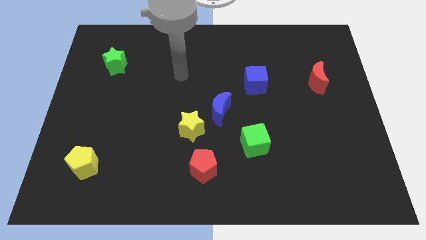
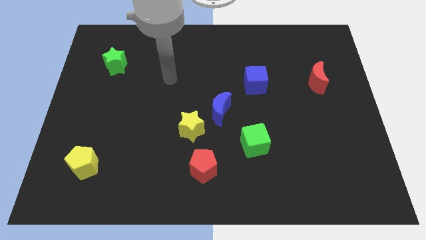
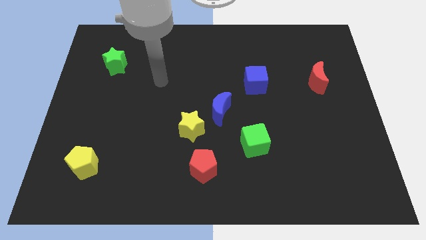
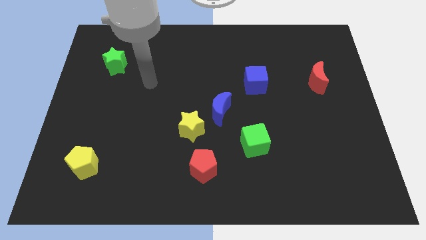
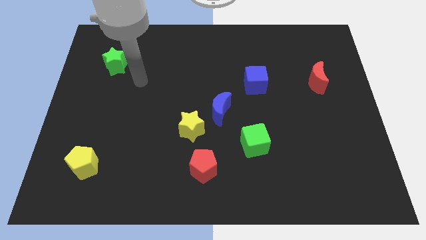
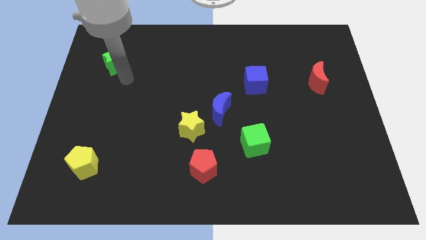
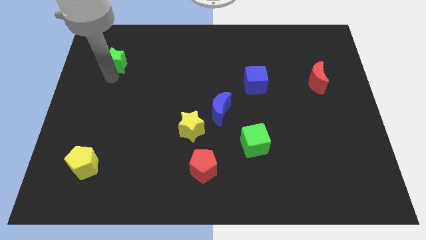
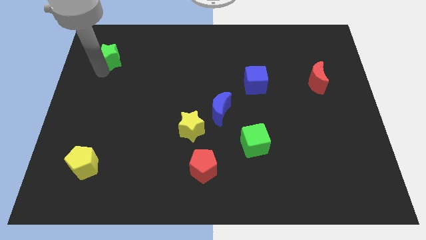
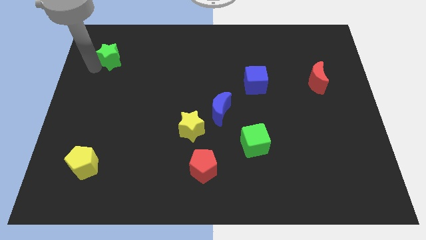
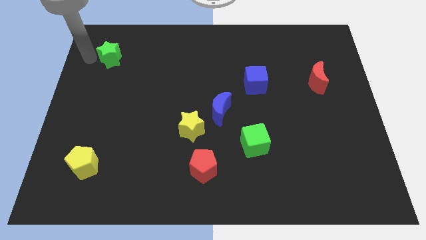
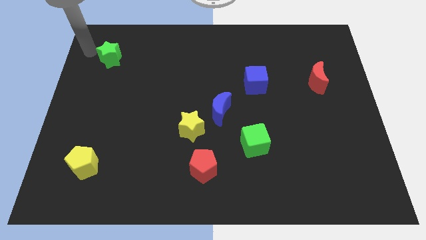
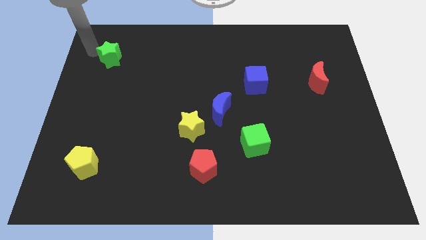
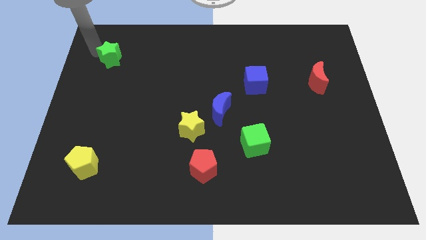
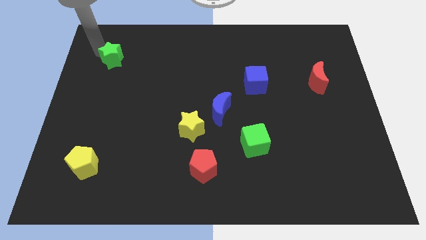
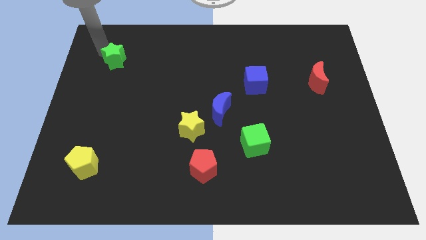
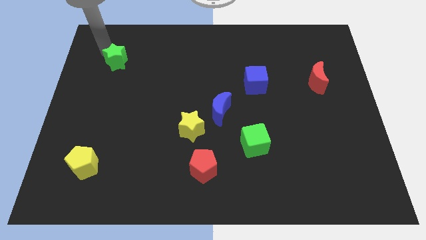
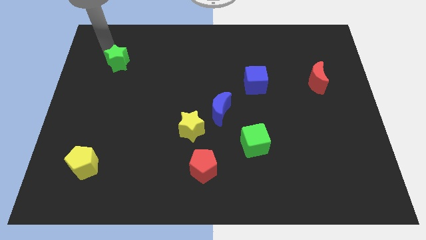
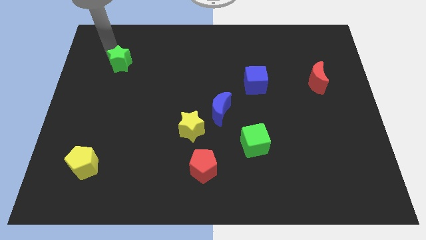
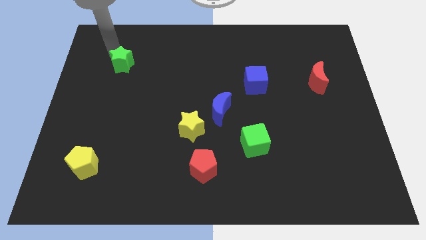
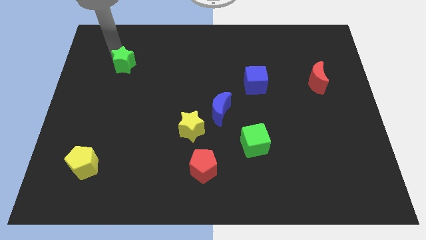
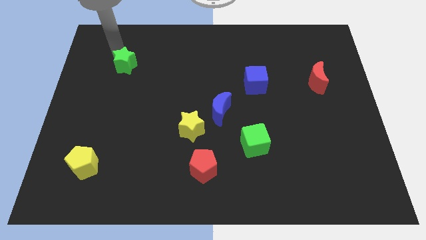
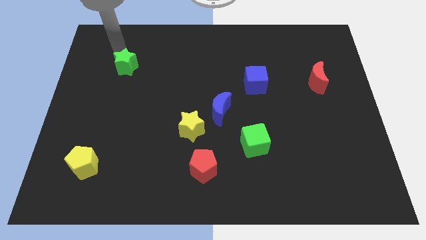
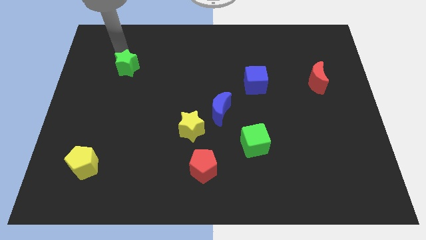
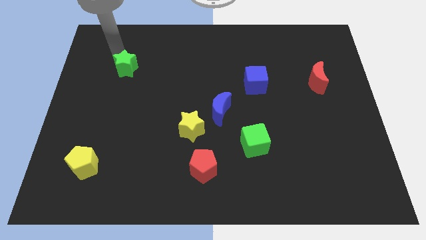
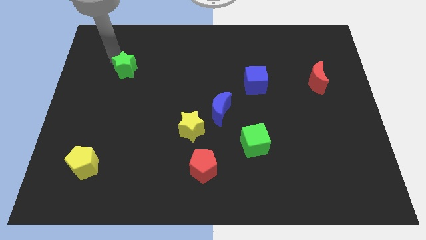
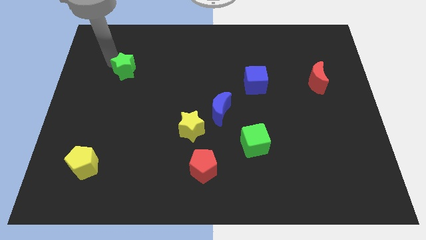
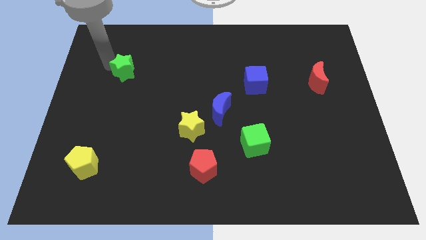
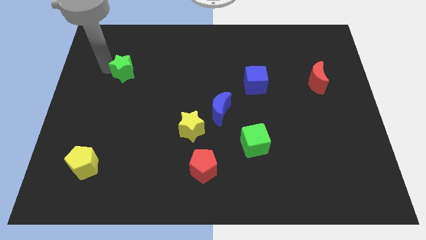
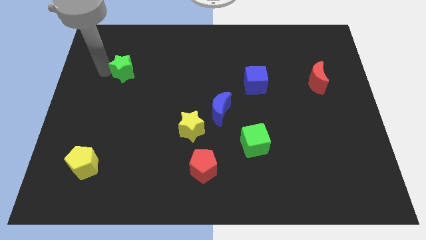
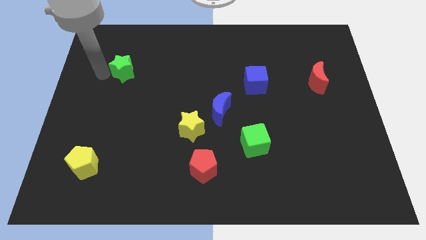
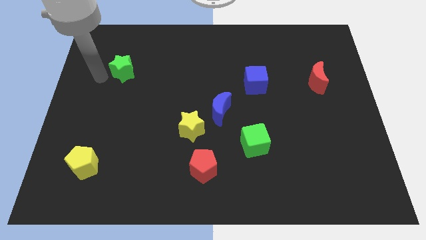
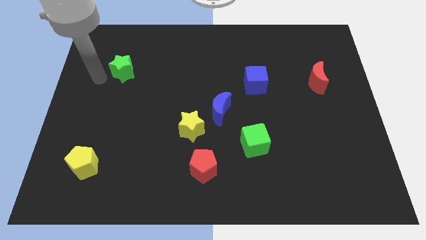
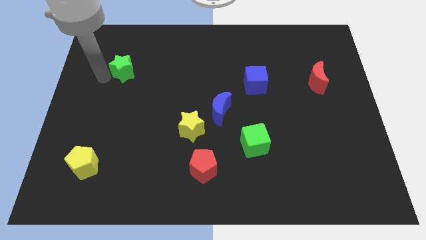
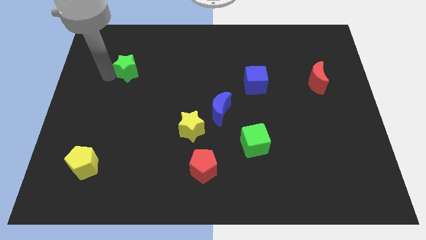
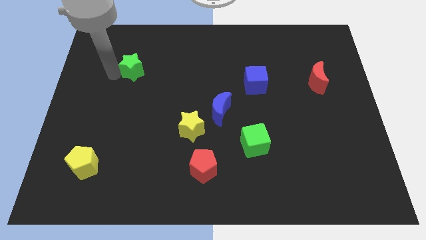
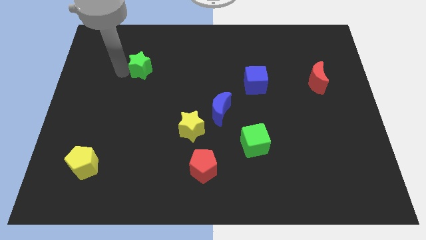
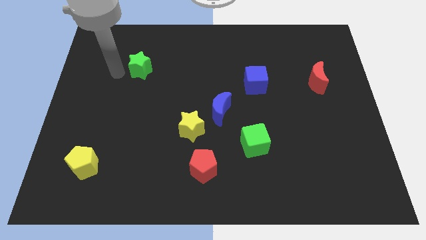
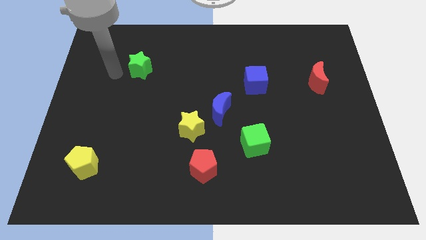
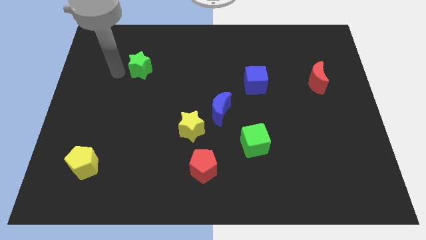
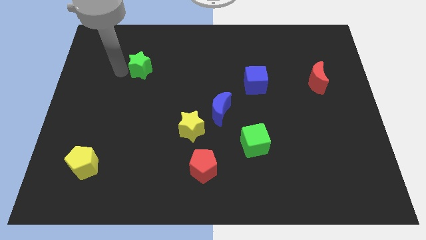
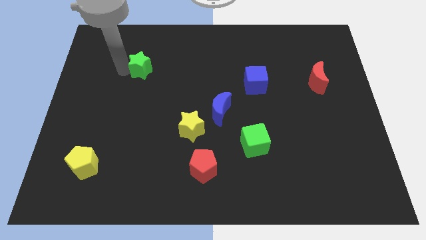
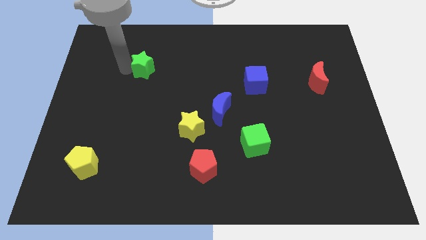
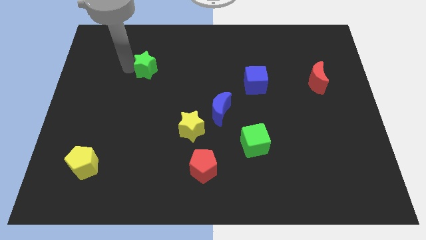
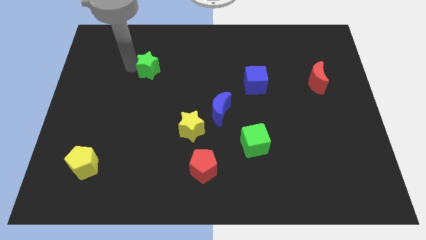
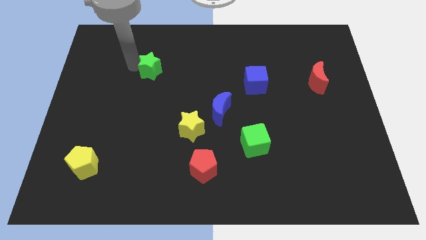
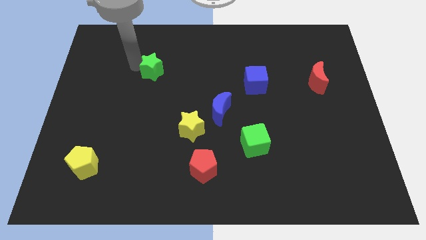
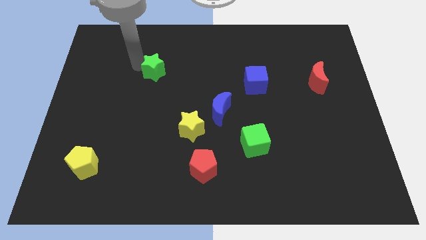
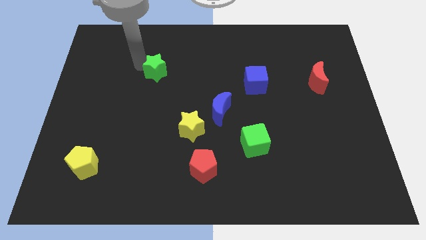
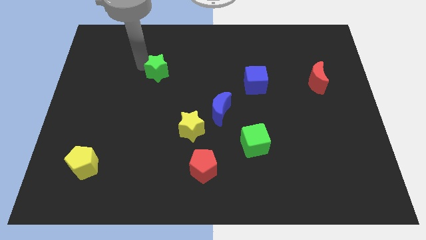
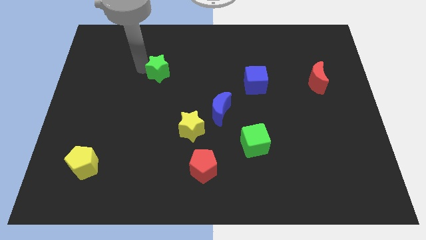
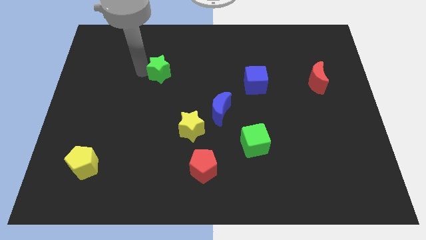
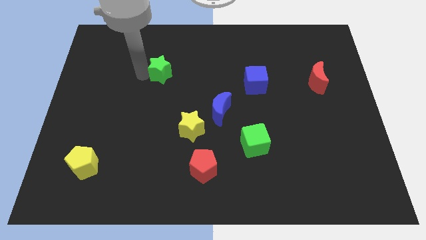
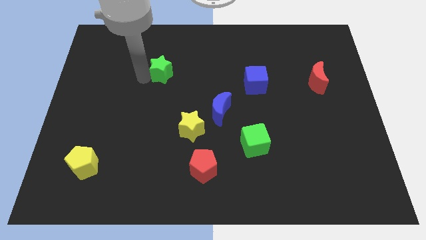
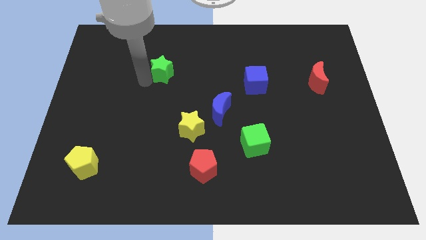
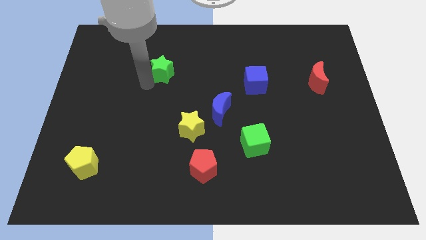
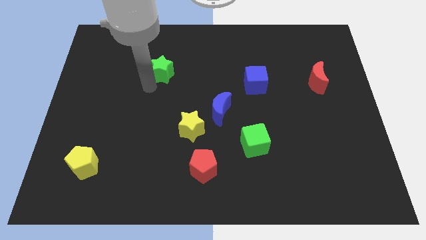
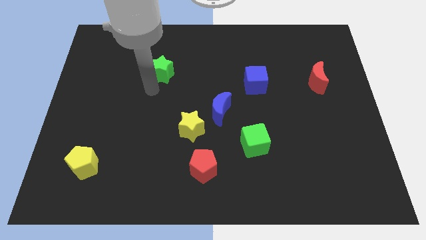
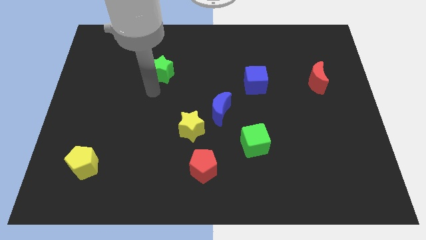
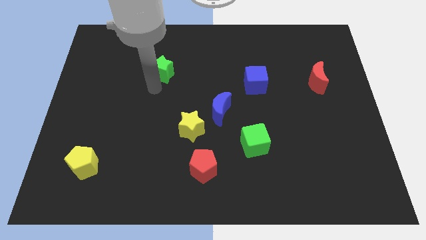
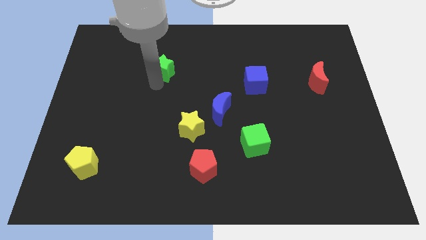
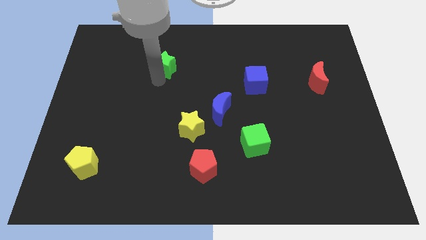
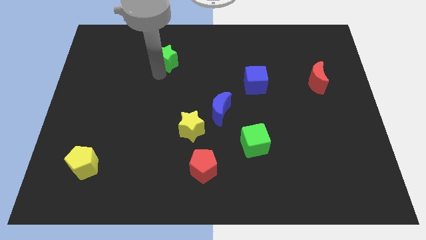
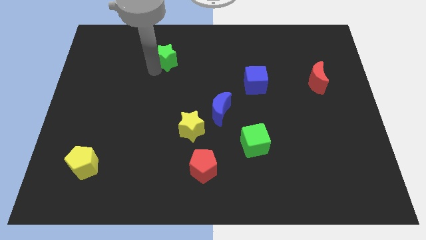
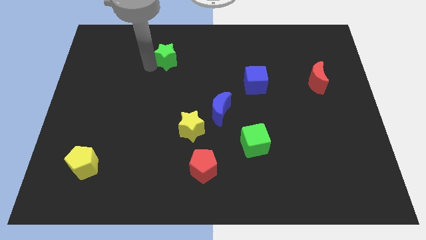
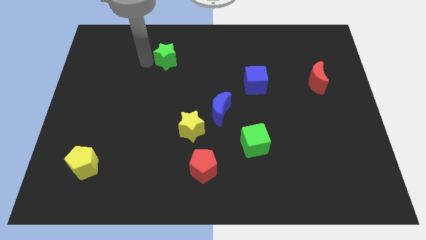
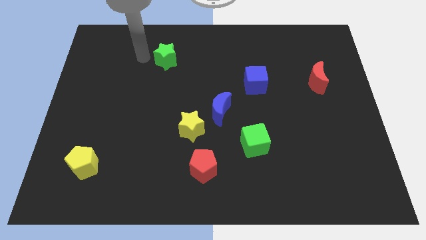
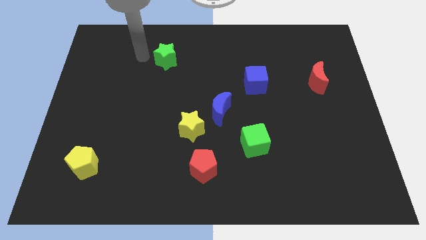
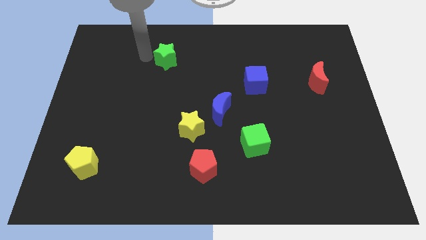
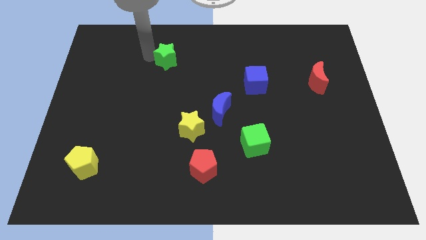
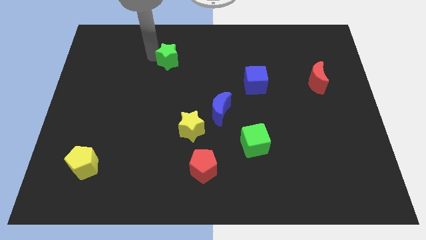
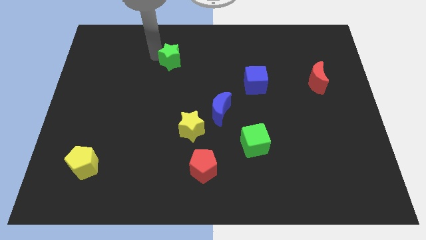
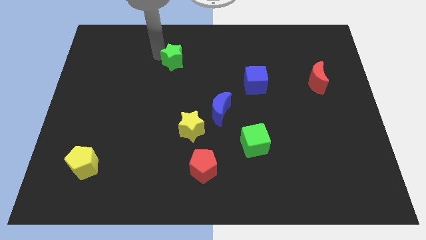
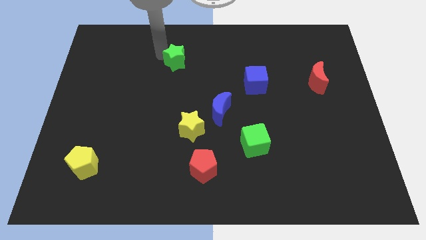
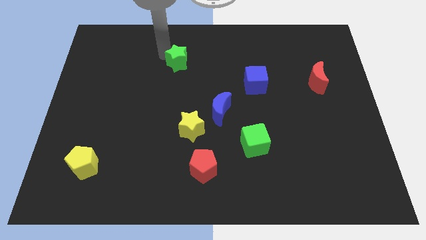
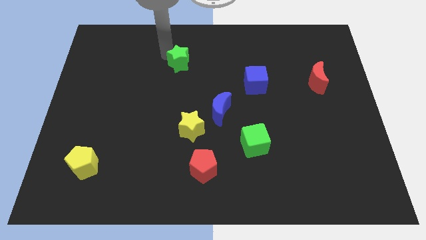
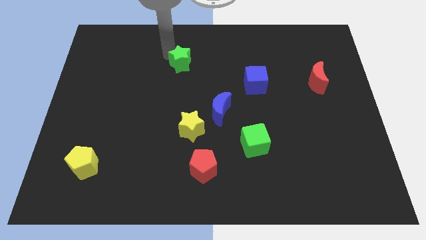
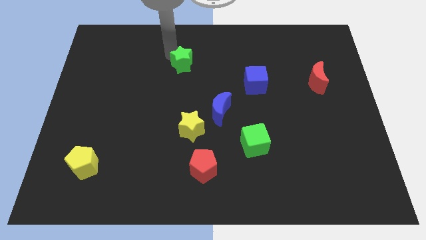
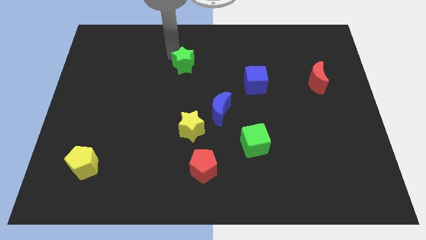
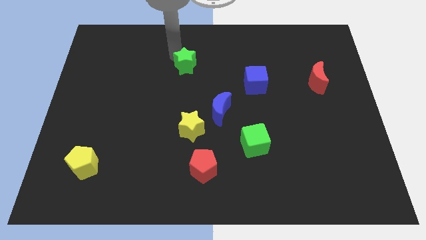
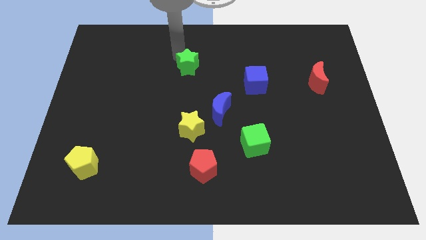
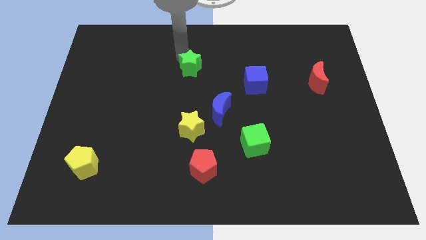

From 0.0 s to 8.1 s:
move the green star to the right

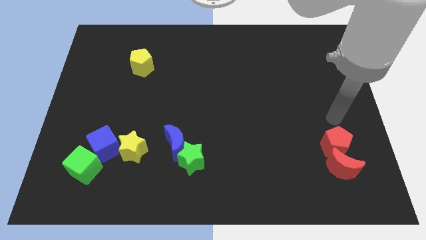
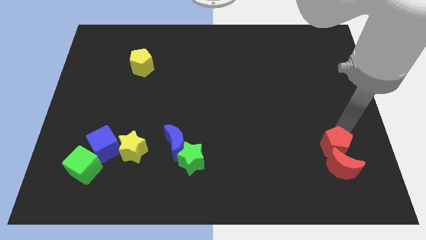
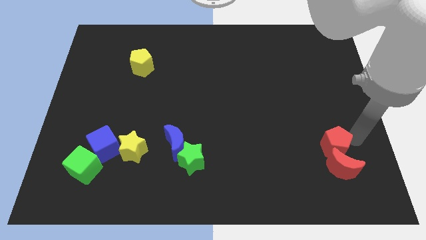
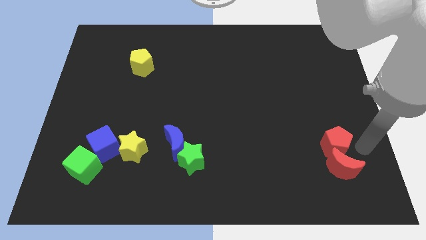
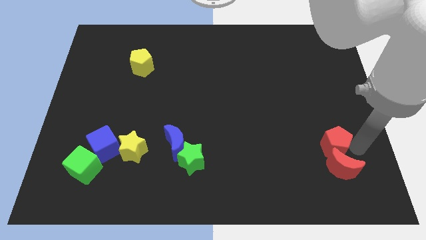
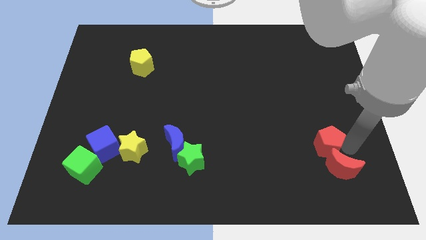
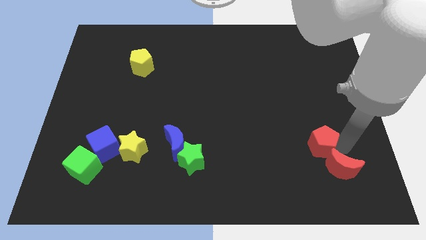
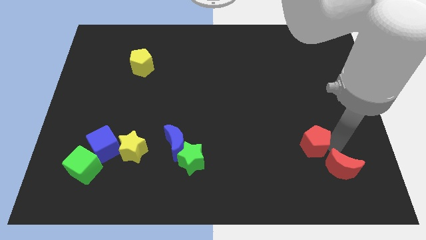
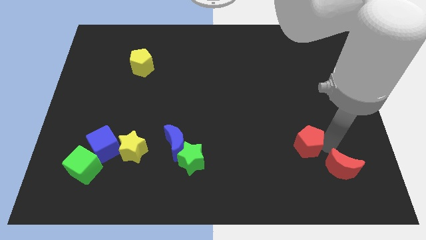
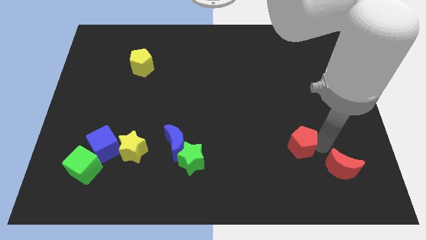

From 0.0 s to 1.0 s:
push the red pentagon to the left a little
